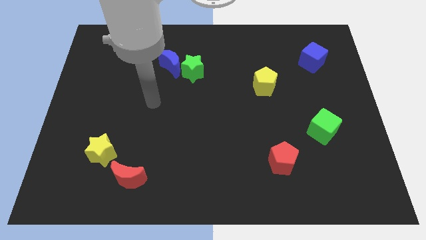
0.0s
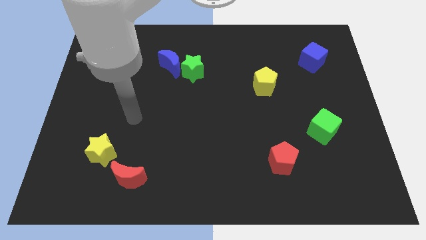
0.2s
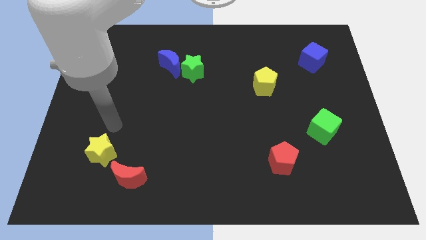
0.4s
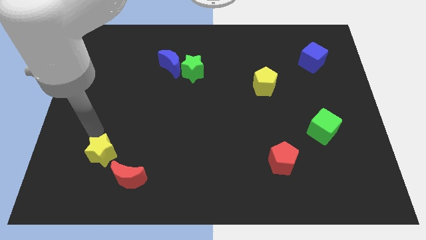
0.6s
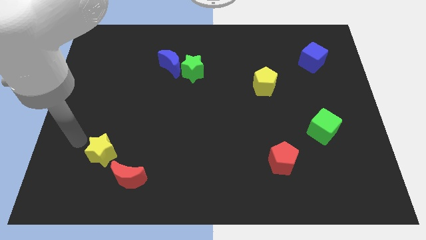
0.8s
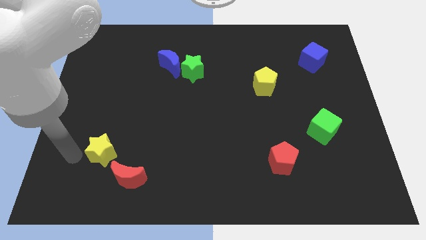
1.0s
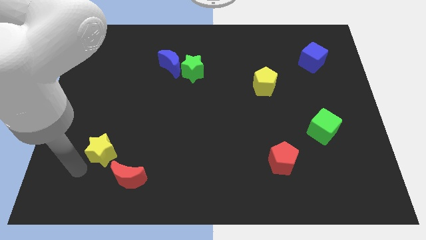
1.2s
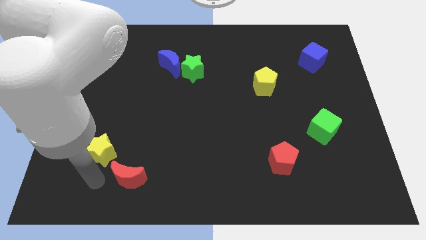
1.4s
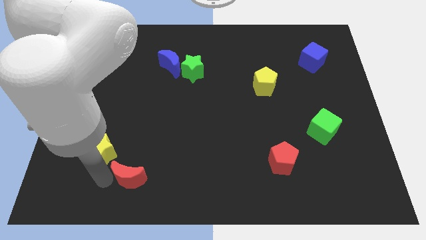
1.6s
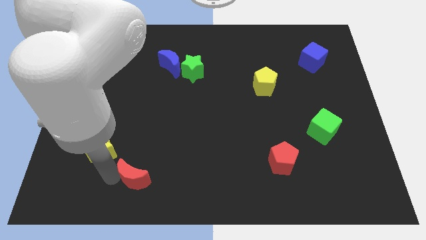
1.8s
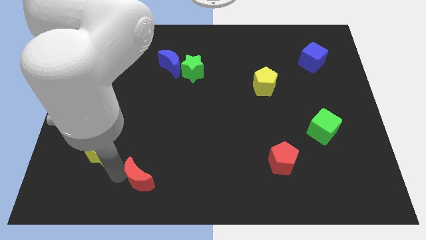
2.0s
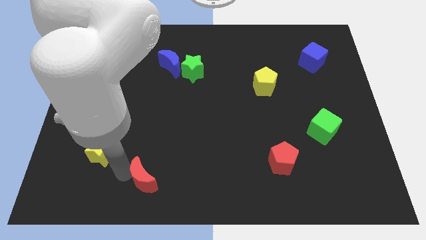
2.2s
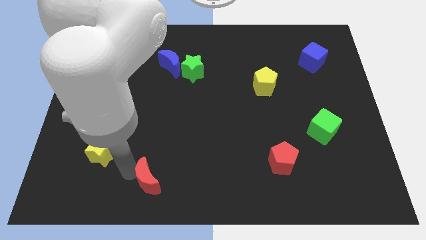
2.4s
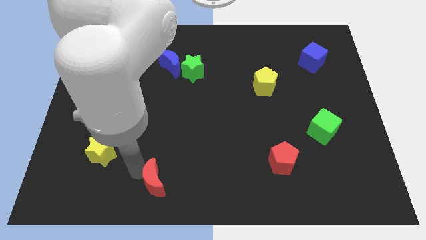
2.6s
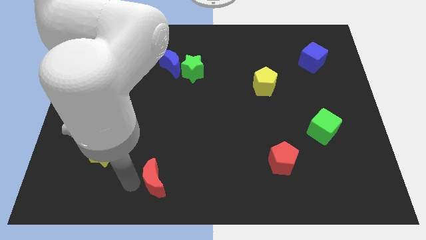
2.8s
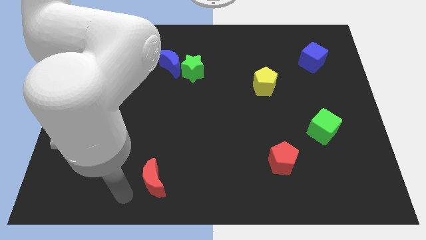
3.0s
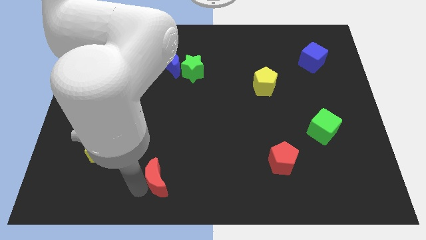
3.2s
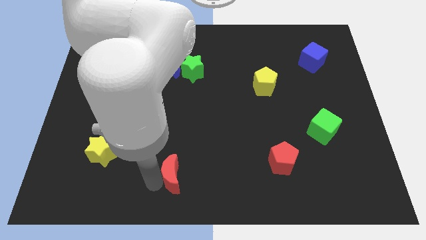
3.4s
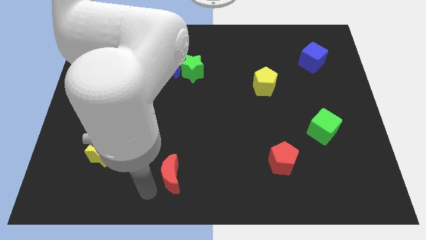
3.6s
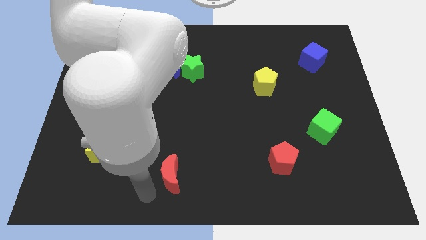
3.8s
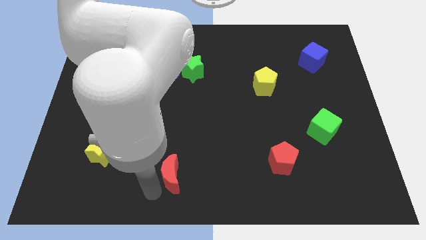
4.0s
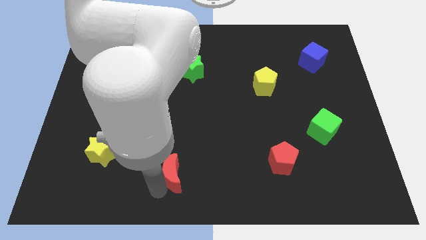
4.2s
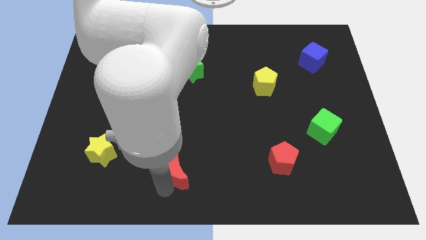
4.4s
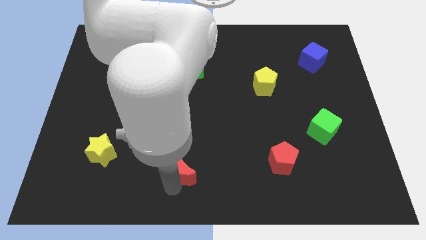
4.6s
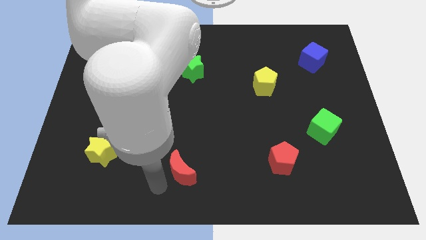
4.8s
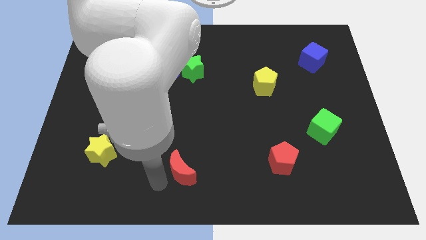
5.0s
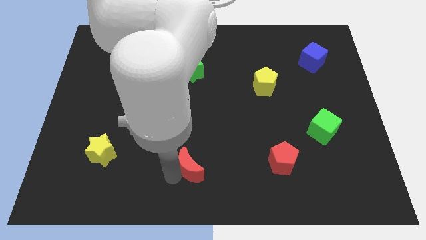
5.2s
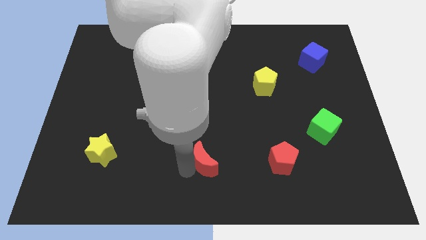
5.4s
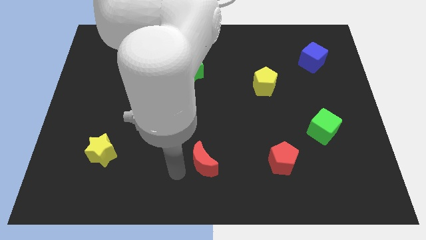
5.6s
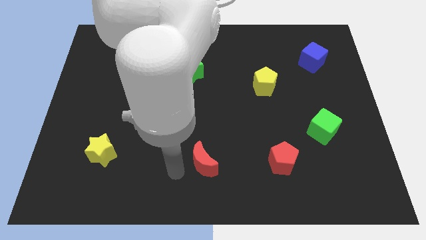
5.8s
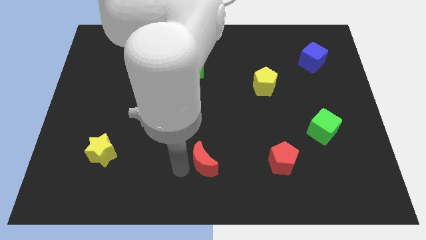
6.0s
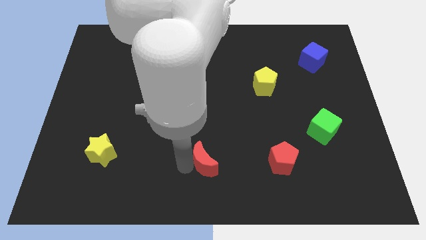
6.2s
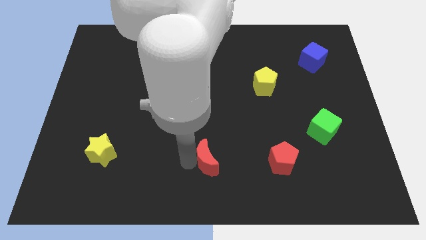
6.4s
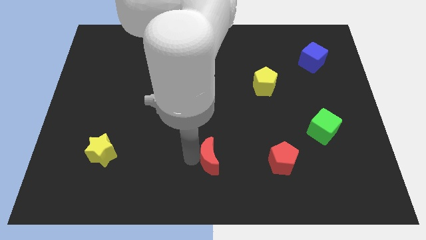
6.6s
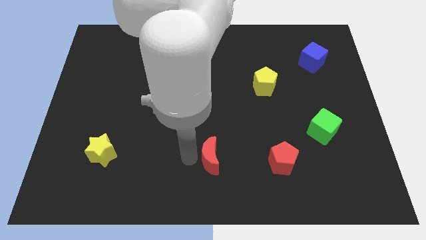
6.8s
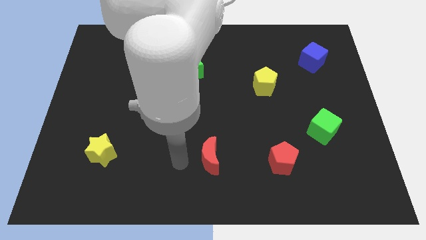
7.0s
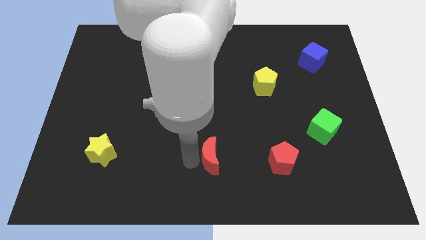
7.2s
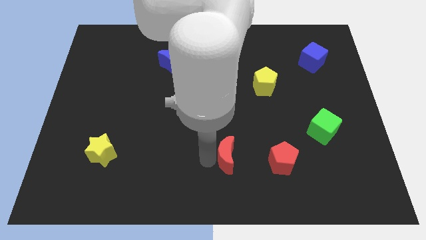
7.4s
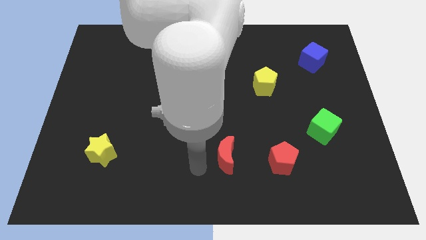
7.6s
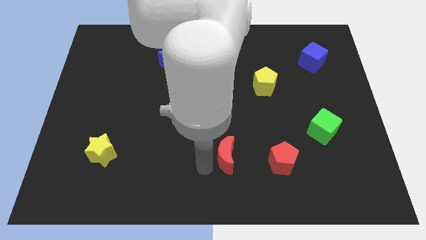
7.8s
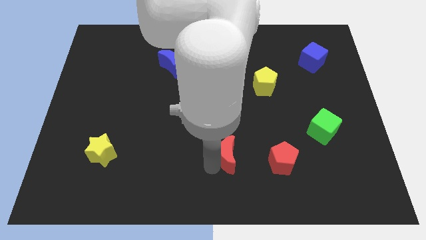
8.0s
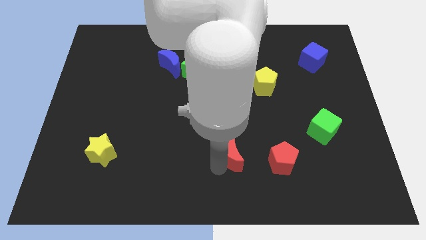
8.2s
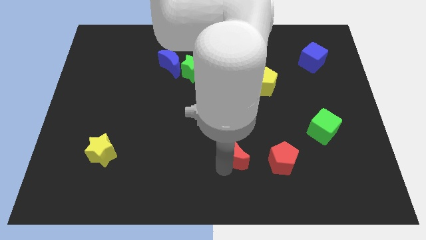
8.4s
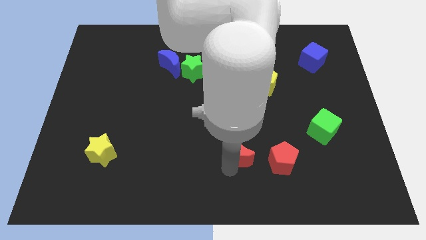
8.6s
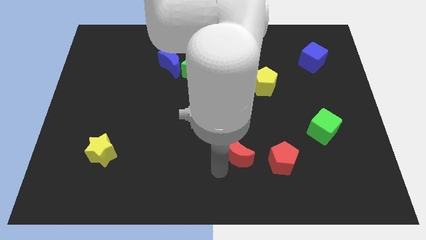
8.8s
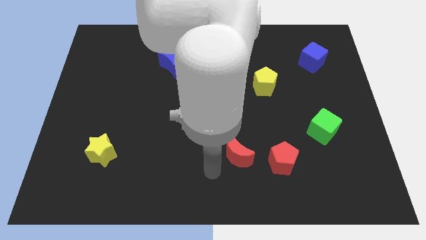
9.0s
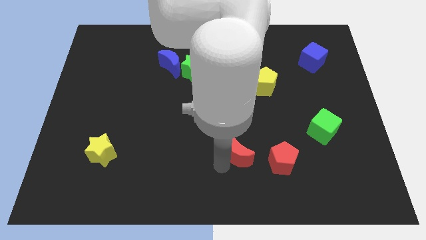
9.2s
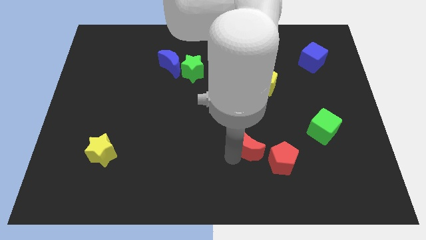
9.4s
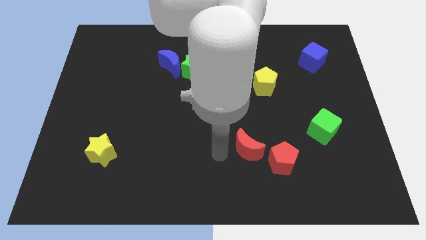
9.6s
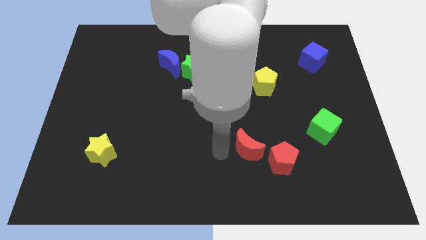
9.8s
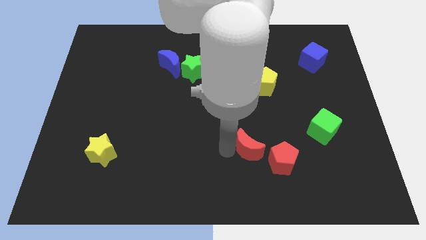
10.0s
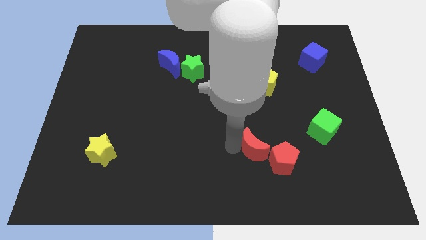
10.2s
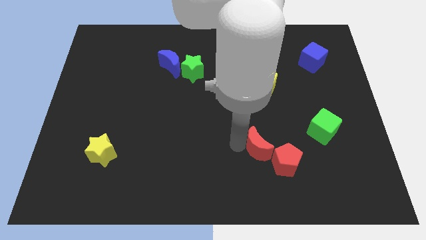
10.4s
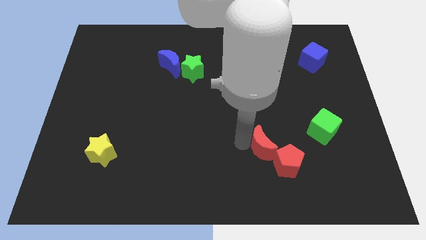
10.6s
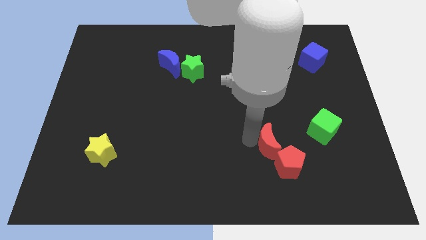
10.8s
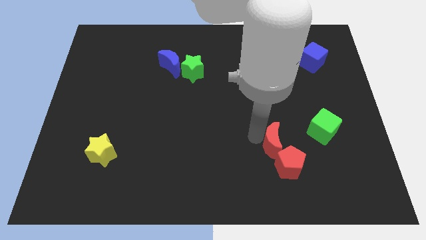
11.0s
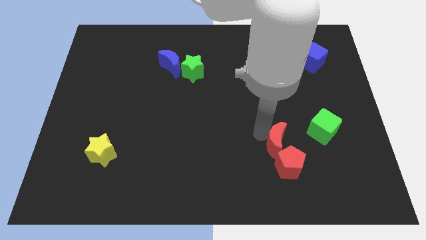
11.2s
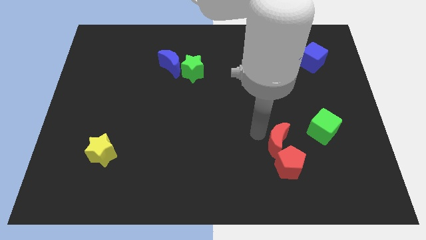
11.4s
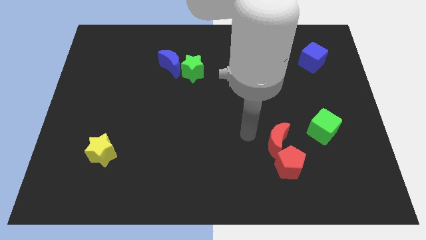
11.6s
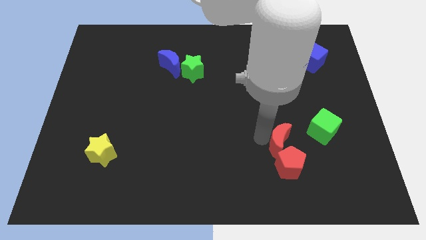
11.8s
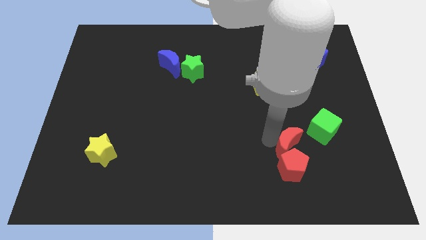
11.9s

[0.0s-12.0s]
push the red moon to the bottom left of the green cube

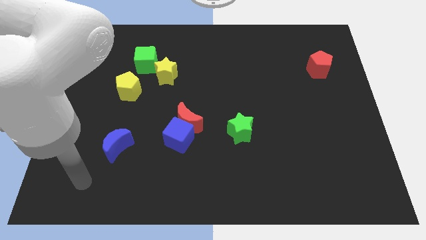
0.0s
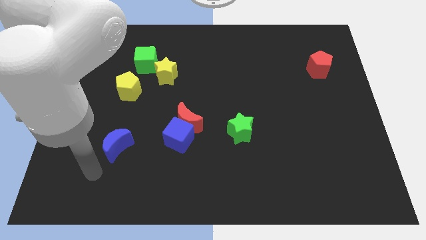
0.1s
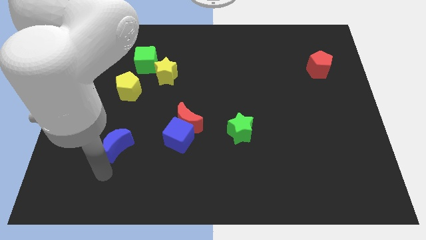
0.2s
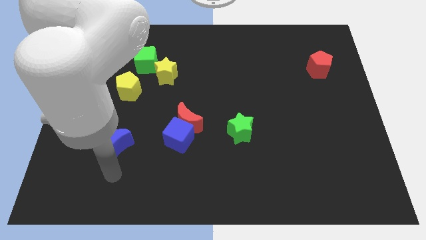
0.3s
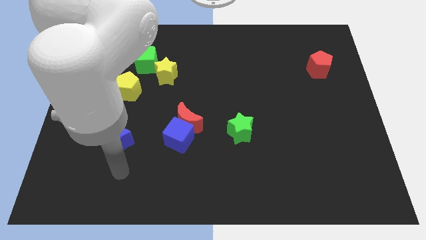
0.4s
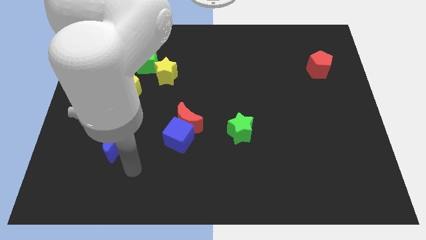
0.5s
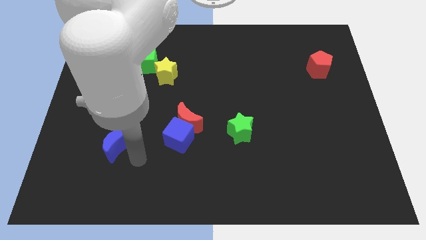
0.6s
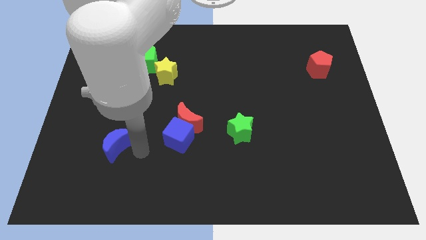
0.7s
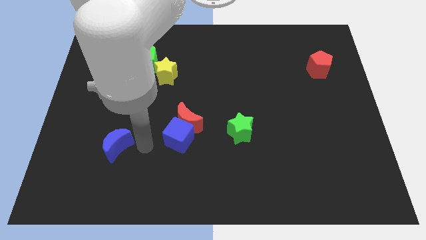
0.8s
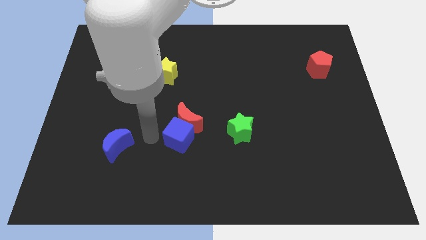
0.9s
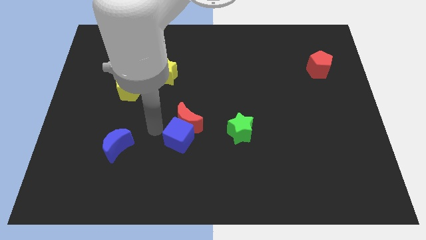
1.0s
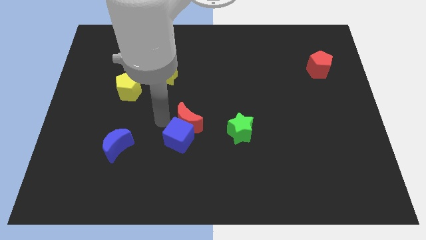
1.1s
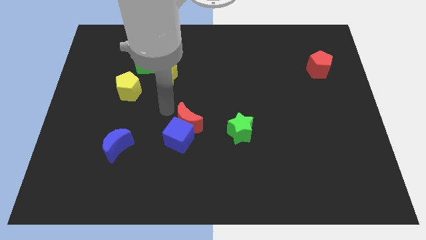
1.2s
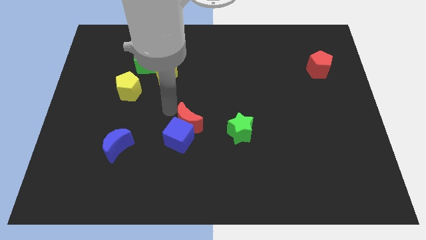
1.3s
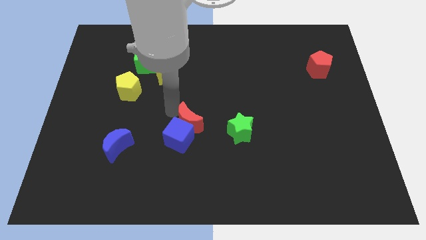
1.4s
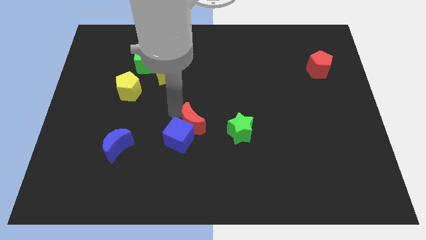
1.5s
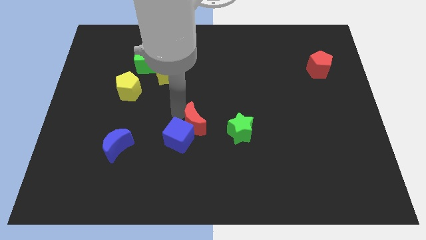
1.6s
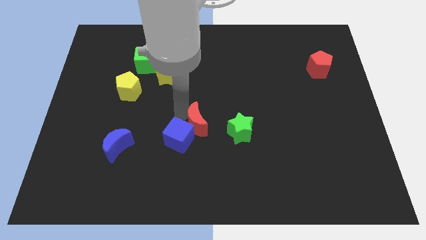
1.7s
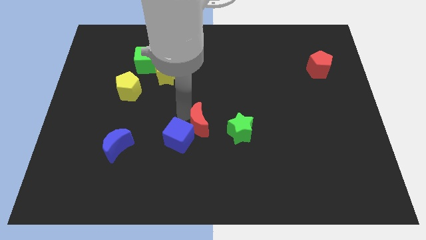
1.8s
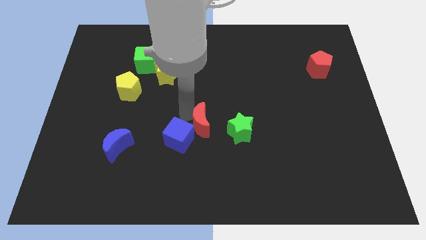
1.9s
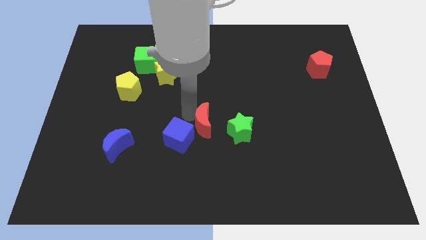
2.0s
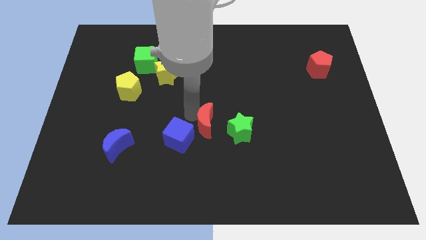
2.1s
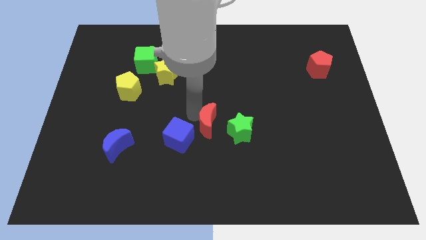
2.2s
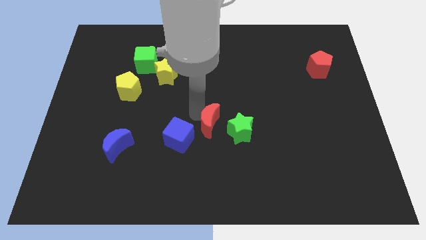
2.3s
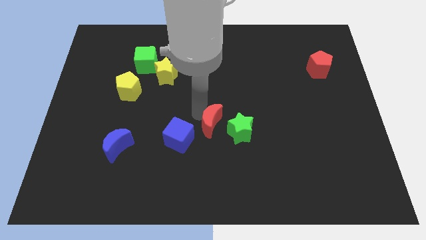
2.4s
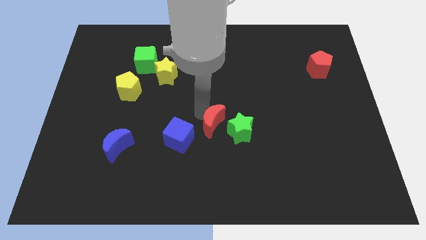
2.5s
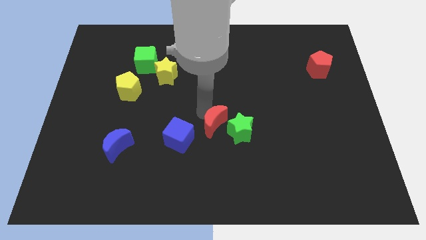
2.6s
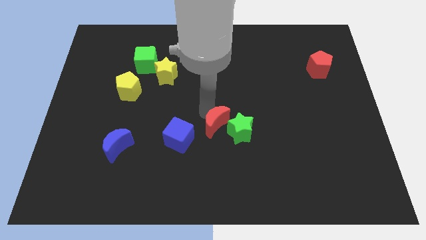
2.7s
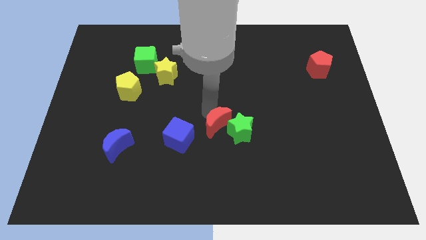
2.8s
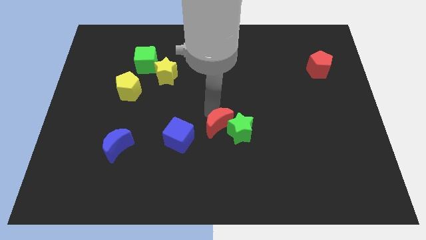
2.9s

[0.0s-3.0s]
move the red moon diagonally down and to the left of the green star
